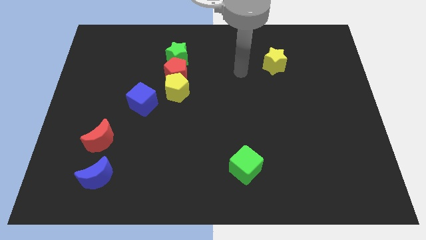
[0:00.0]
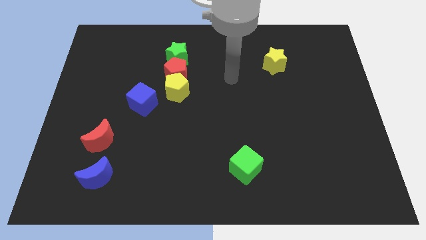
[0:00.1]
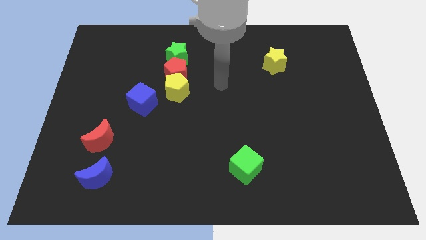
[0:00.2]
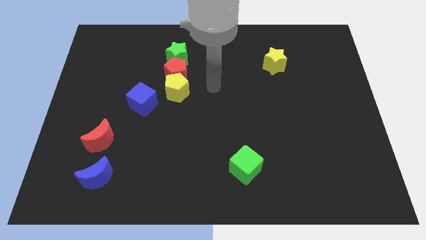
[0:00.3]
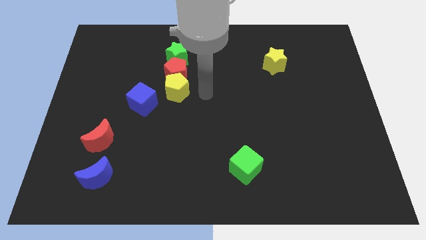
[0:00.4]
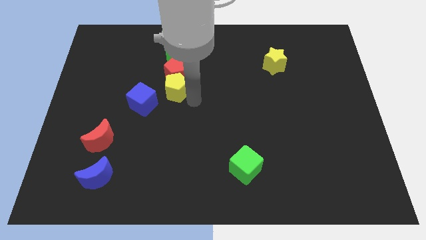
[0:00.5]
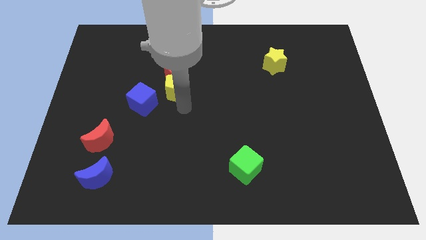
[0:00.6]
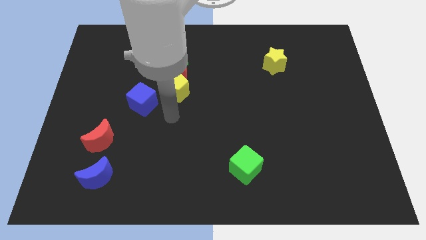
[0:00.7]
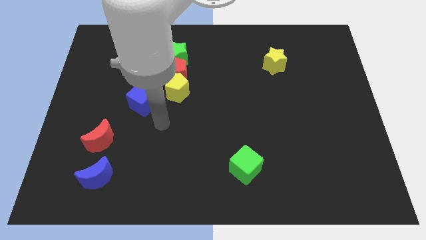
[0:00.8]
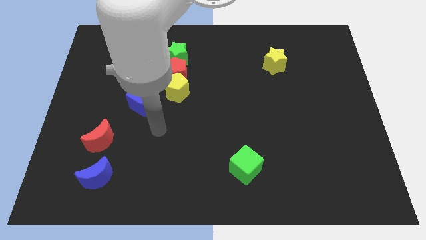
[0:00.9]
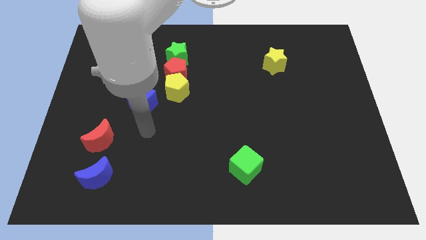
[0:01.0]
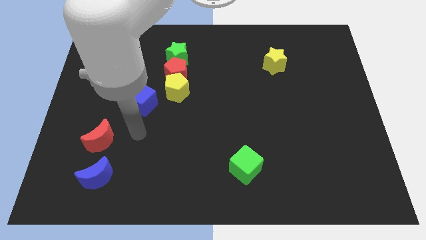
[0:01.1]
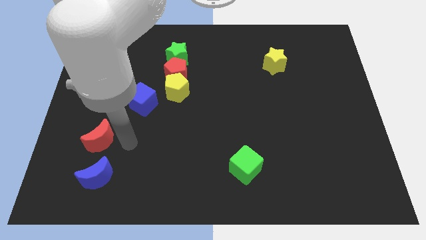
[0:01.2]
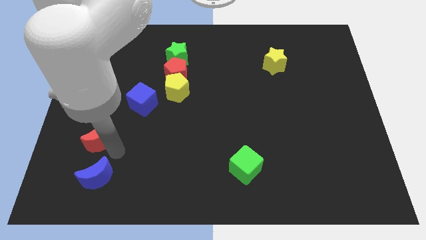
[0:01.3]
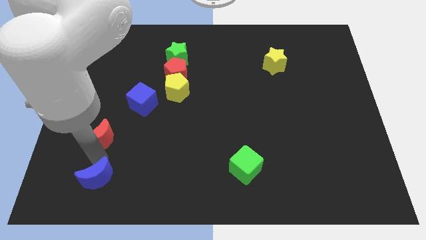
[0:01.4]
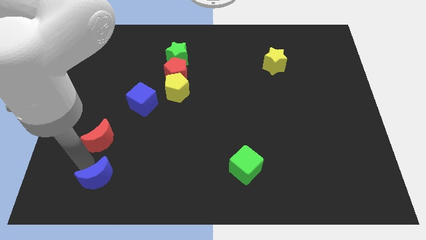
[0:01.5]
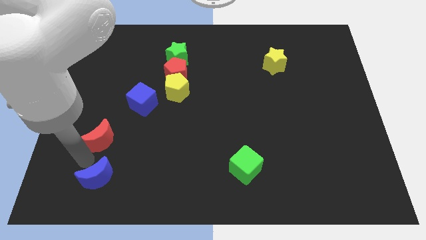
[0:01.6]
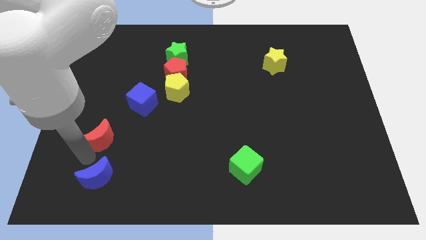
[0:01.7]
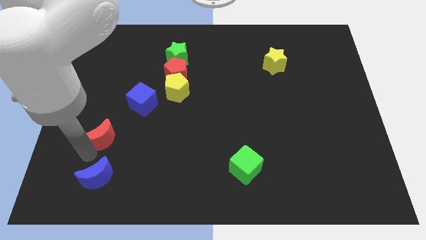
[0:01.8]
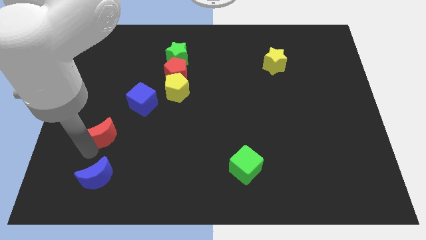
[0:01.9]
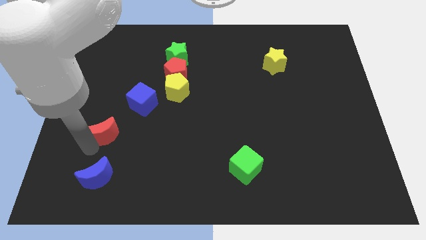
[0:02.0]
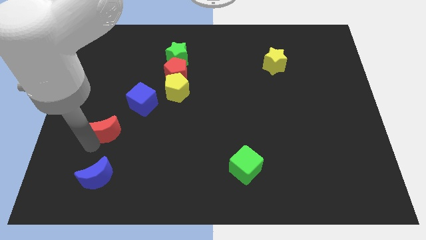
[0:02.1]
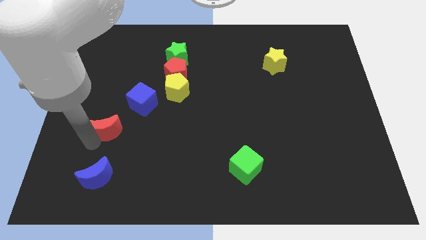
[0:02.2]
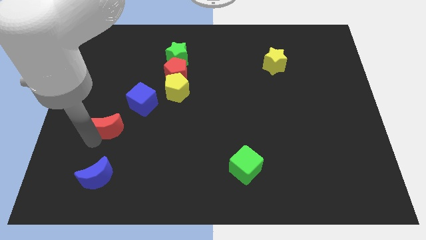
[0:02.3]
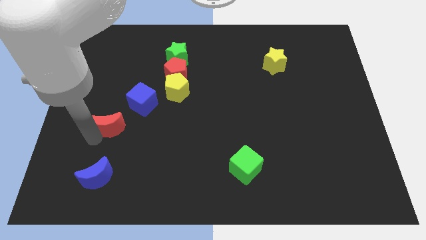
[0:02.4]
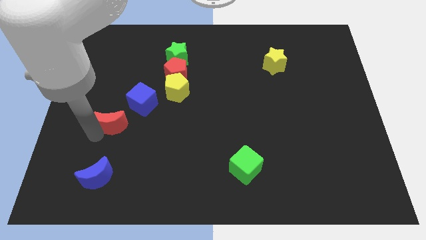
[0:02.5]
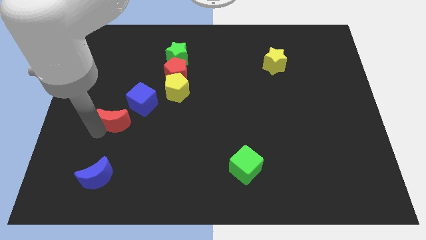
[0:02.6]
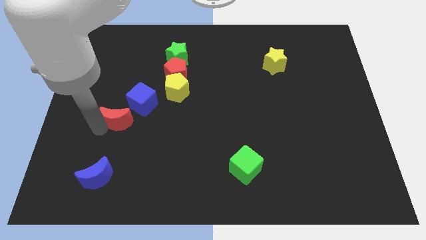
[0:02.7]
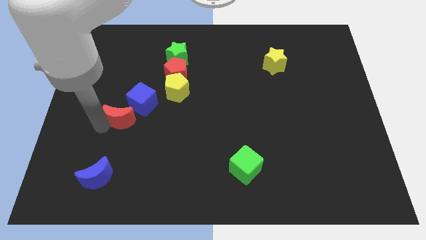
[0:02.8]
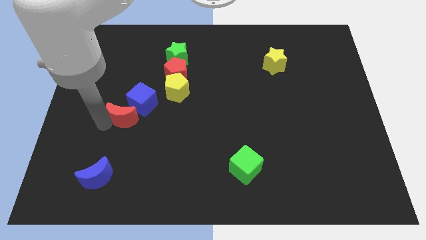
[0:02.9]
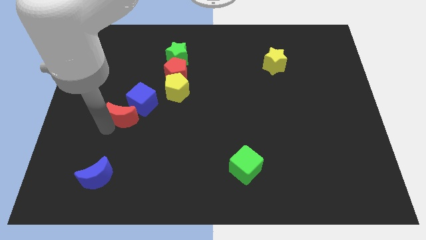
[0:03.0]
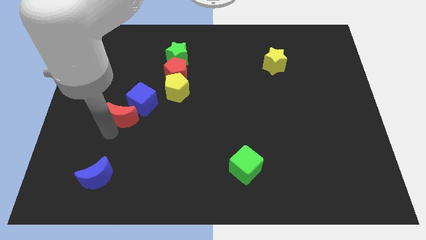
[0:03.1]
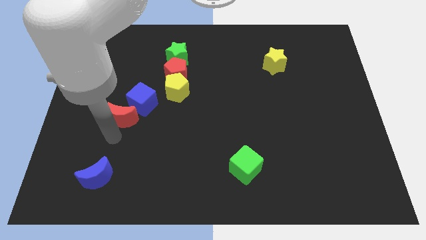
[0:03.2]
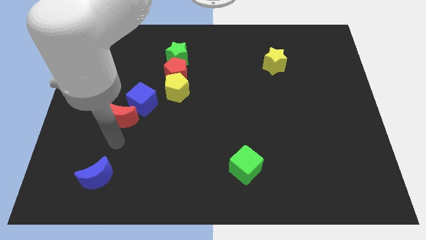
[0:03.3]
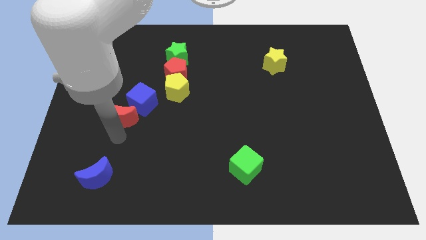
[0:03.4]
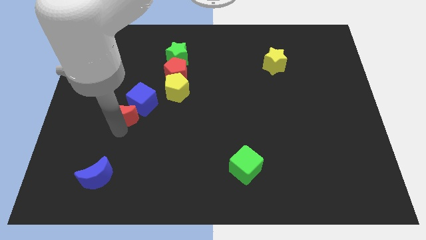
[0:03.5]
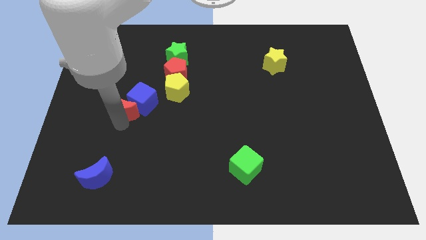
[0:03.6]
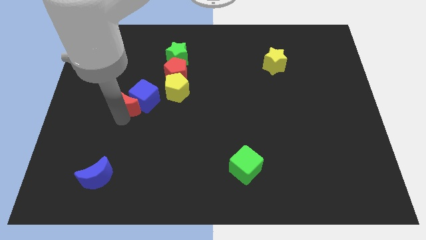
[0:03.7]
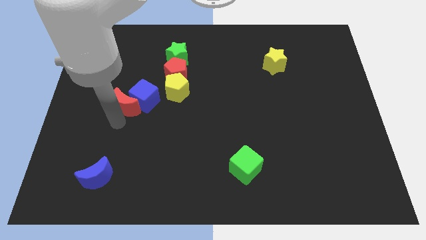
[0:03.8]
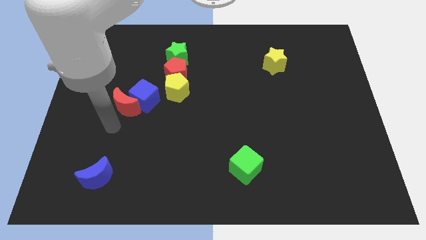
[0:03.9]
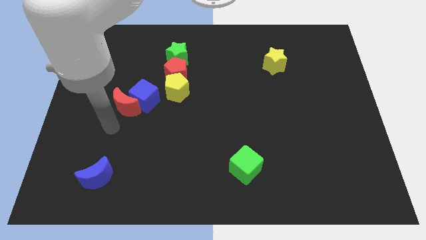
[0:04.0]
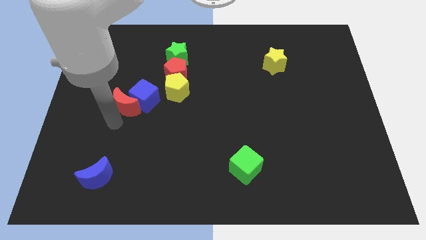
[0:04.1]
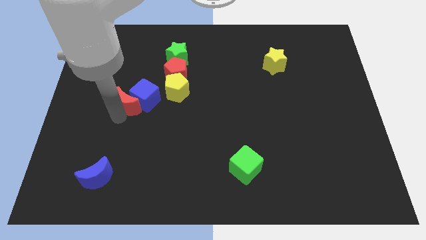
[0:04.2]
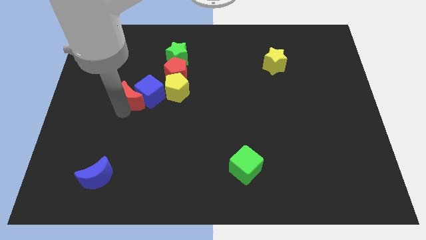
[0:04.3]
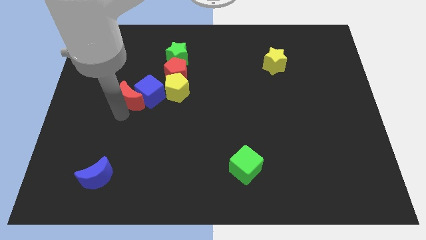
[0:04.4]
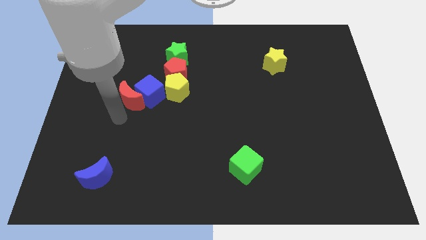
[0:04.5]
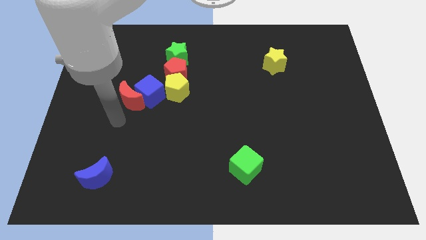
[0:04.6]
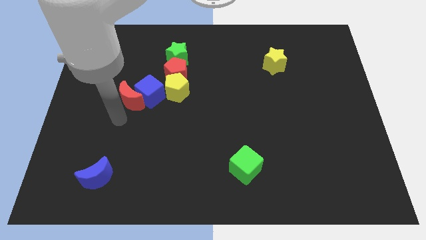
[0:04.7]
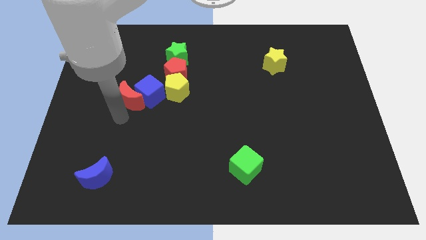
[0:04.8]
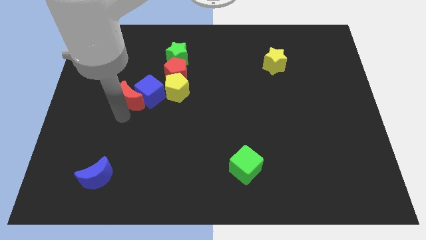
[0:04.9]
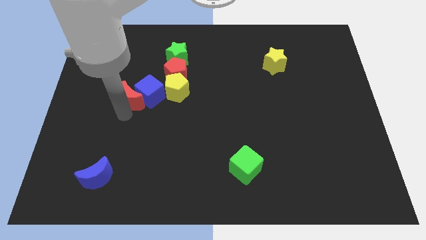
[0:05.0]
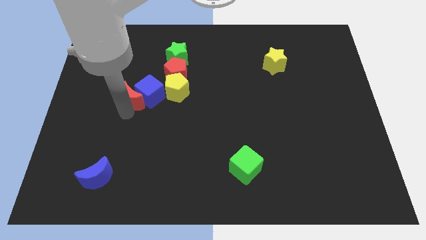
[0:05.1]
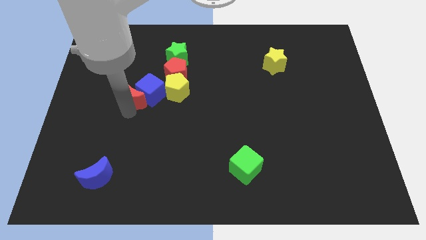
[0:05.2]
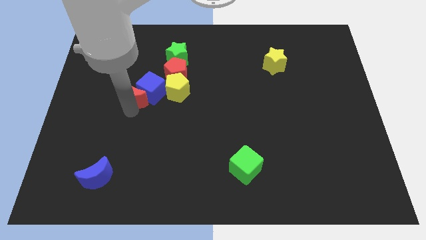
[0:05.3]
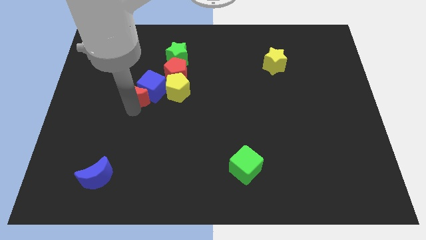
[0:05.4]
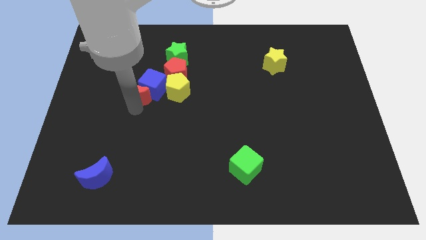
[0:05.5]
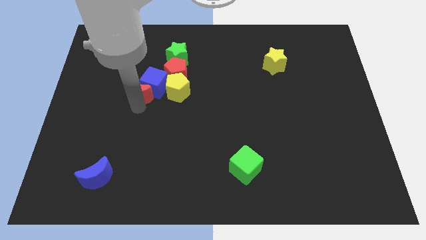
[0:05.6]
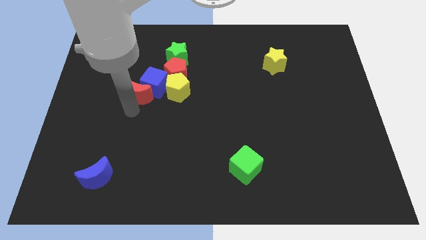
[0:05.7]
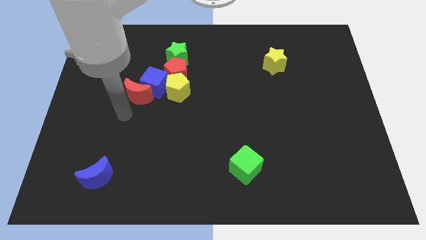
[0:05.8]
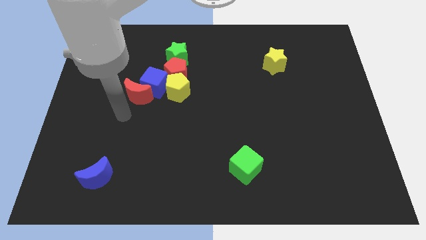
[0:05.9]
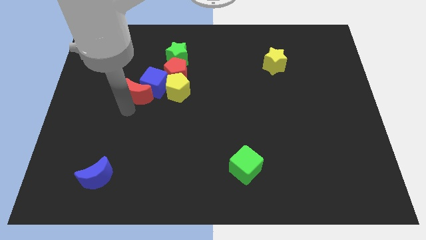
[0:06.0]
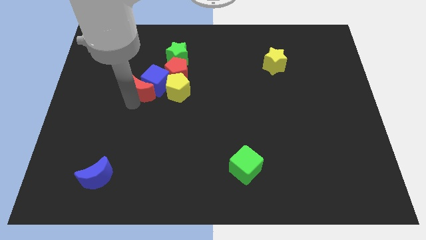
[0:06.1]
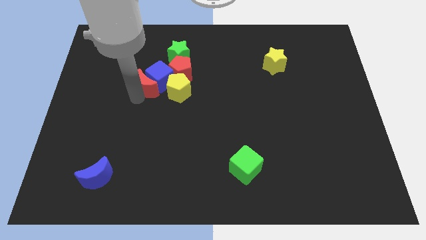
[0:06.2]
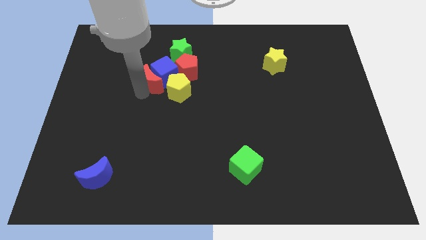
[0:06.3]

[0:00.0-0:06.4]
move the red moon diagonally down and to the left of the green star

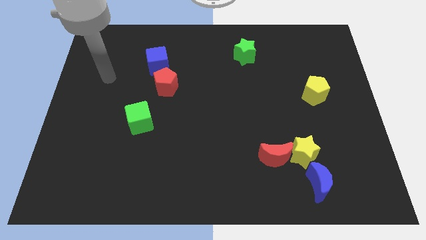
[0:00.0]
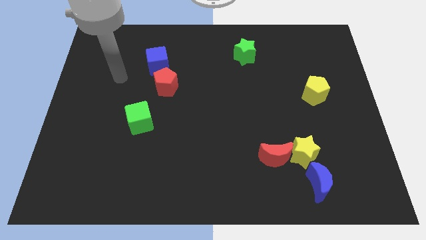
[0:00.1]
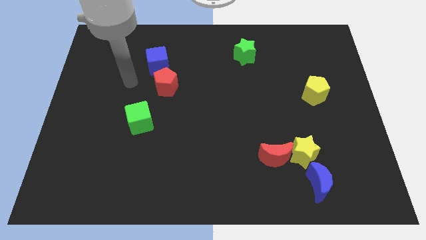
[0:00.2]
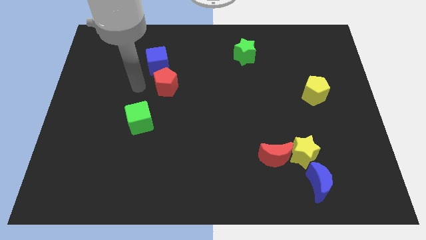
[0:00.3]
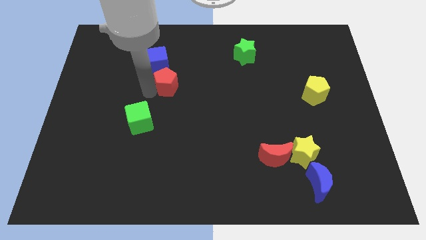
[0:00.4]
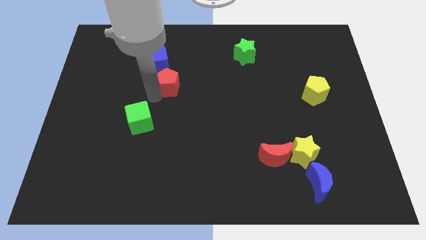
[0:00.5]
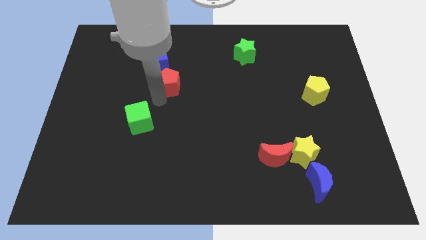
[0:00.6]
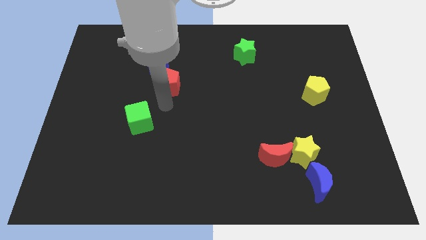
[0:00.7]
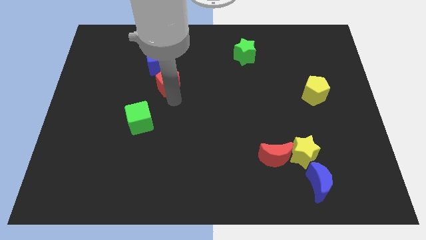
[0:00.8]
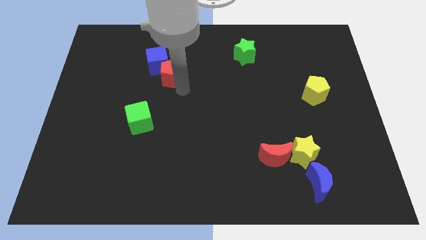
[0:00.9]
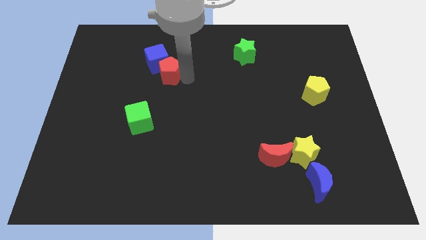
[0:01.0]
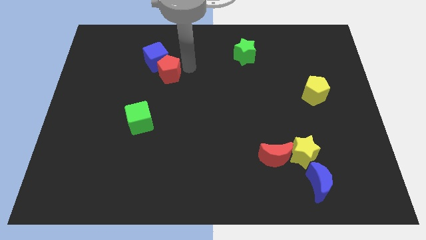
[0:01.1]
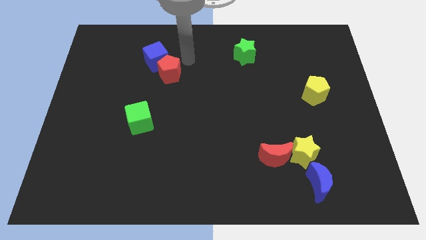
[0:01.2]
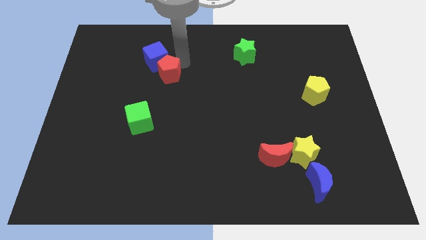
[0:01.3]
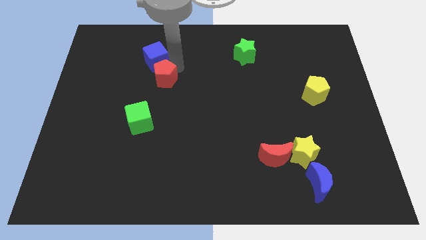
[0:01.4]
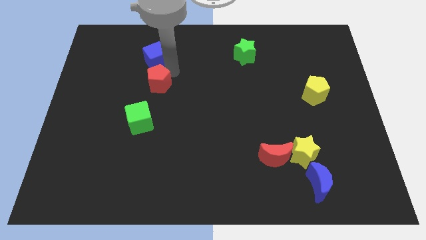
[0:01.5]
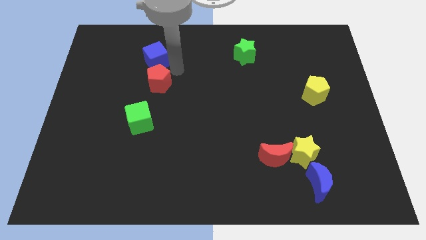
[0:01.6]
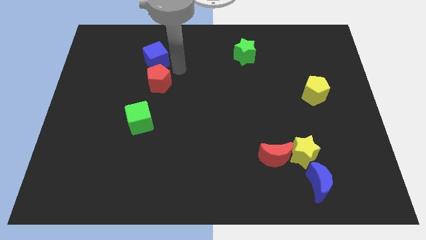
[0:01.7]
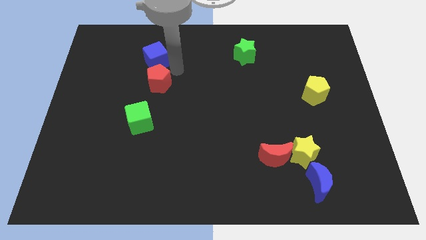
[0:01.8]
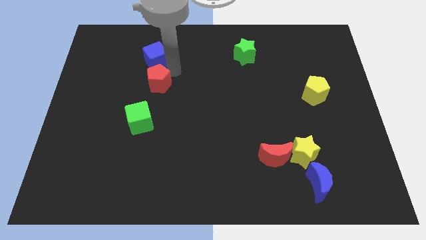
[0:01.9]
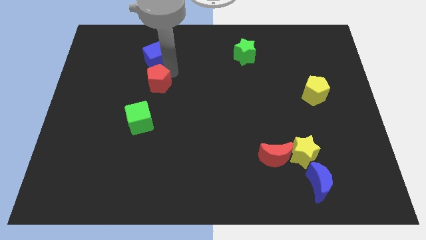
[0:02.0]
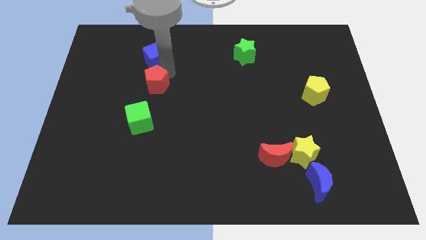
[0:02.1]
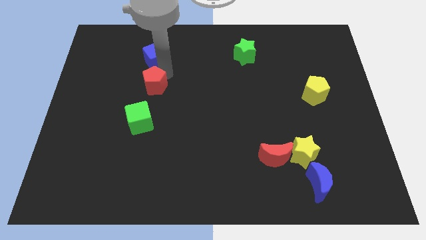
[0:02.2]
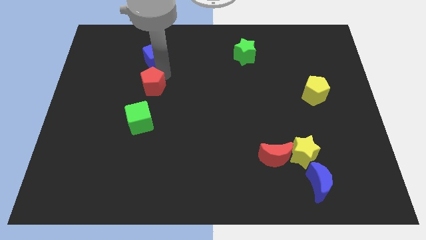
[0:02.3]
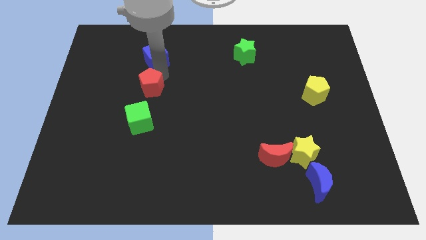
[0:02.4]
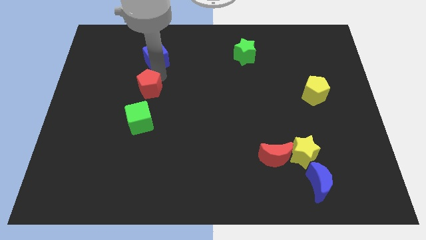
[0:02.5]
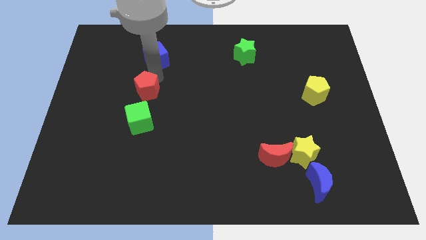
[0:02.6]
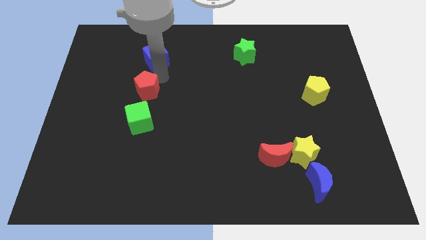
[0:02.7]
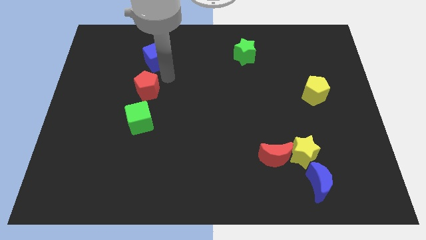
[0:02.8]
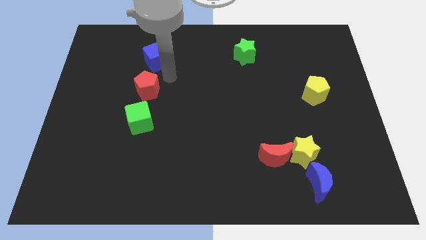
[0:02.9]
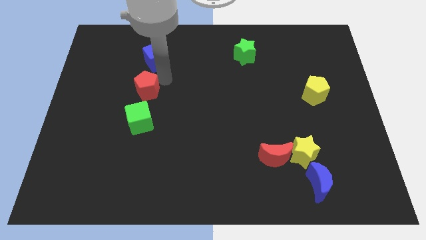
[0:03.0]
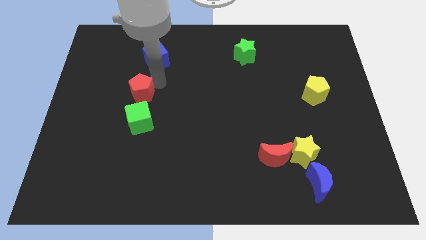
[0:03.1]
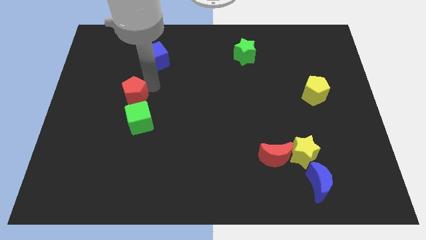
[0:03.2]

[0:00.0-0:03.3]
put the red pentagon diagonally up and to the left of the green cube
